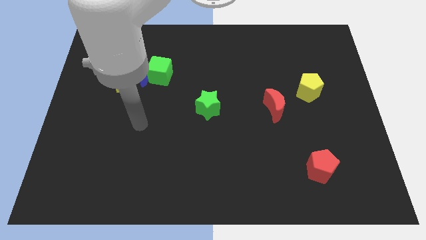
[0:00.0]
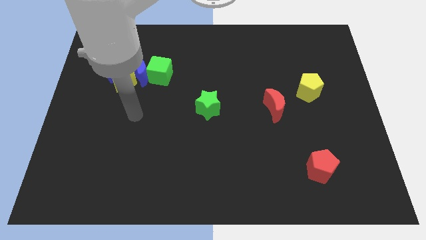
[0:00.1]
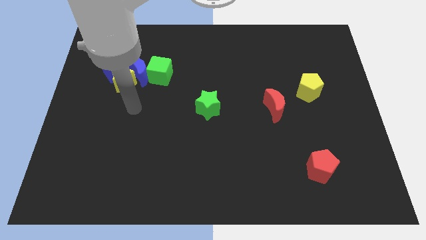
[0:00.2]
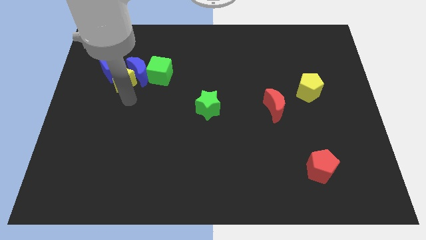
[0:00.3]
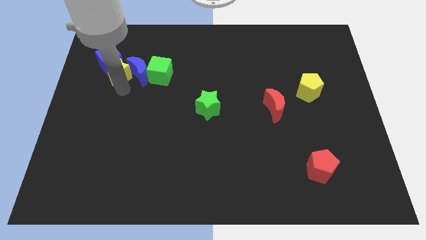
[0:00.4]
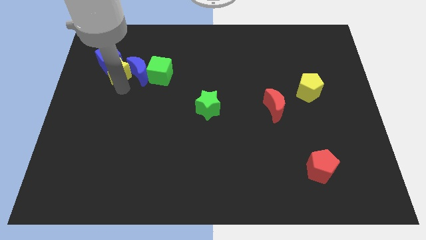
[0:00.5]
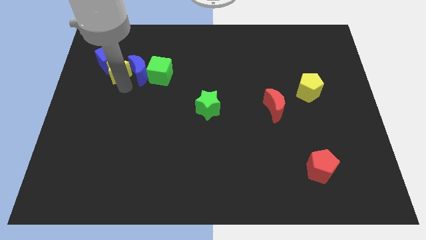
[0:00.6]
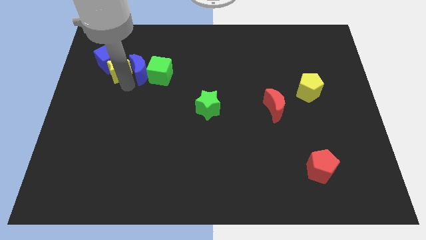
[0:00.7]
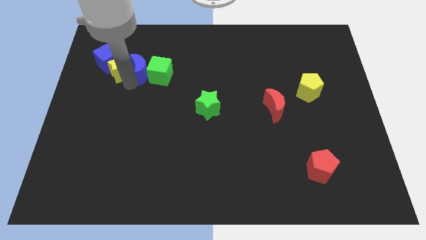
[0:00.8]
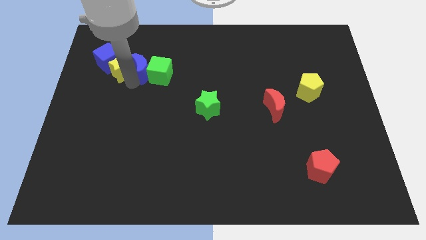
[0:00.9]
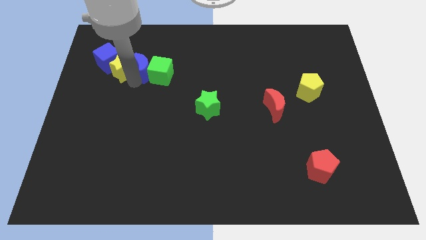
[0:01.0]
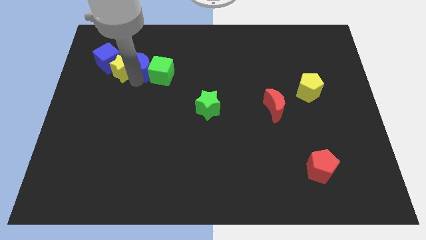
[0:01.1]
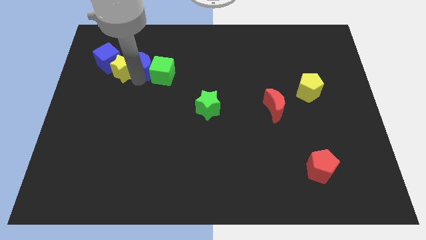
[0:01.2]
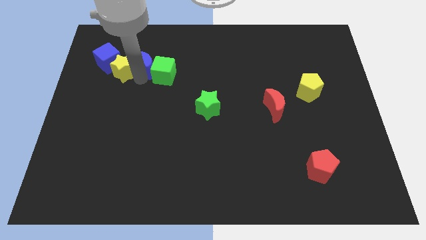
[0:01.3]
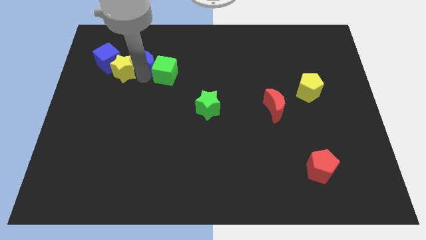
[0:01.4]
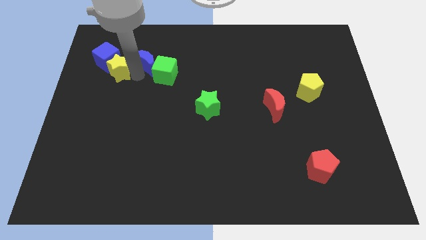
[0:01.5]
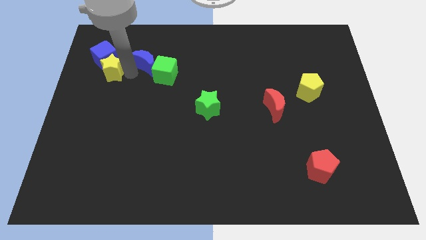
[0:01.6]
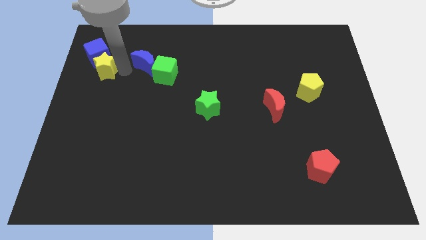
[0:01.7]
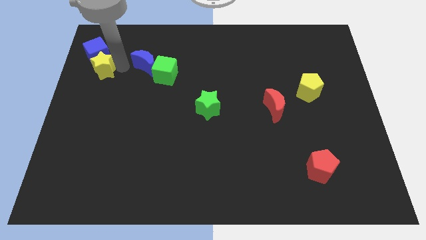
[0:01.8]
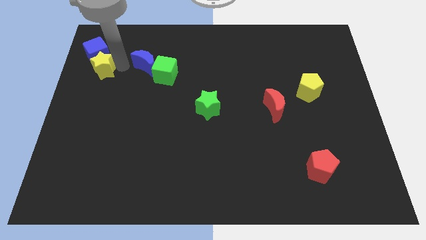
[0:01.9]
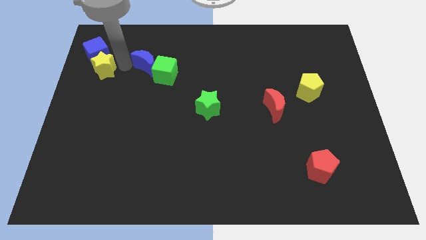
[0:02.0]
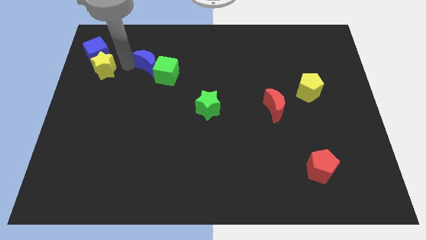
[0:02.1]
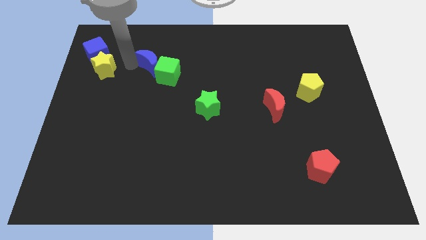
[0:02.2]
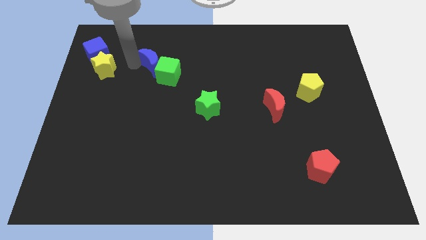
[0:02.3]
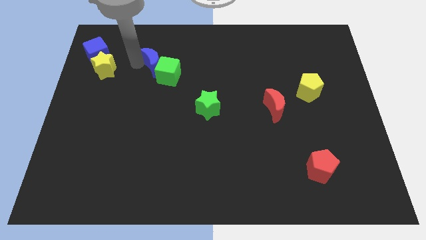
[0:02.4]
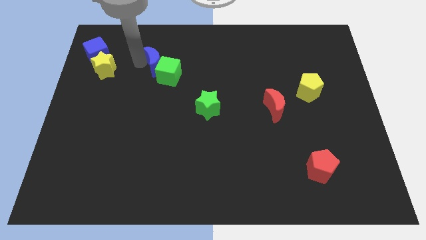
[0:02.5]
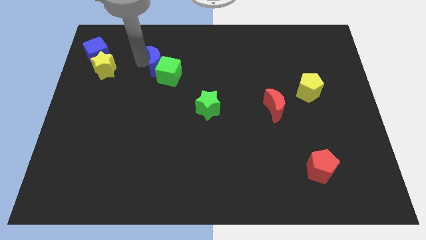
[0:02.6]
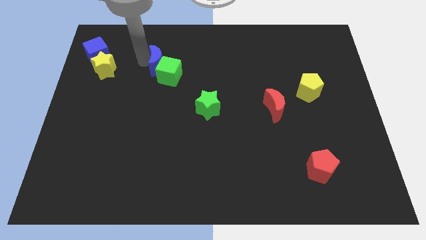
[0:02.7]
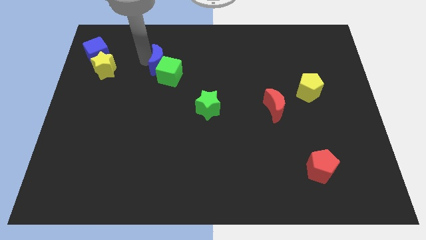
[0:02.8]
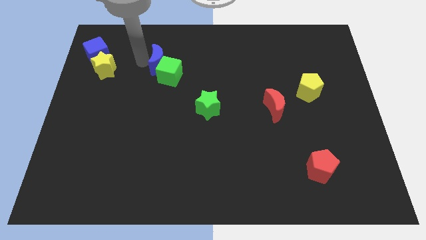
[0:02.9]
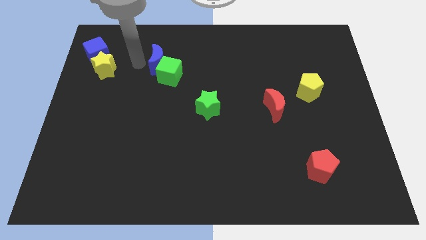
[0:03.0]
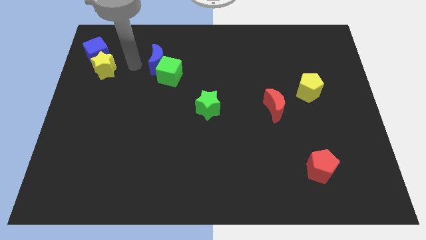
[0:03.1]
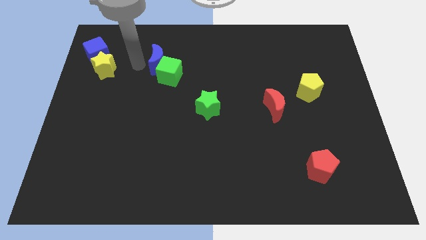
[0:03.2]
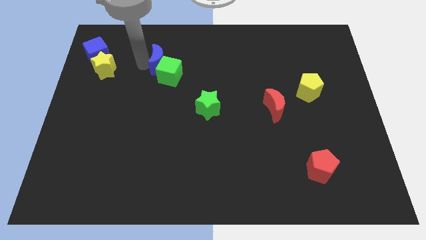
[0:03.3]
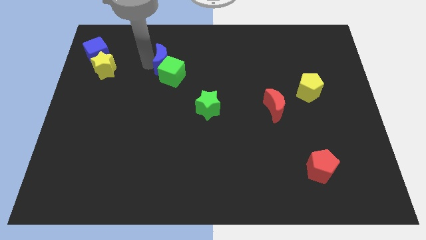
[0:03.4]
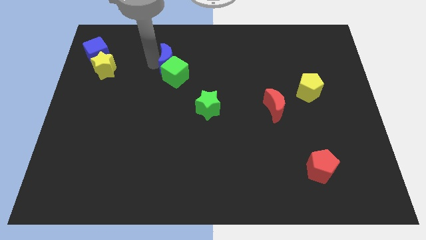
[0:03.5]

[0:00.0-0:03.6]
pull the blue moon apart from the group of blocks

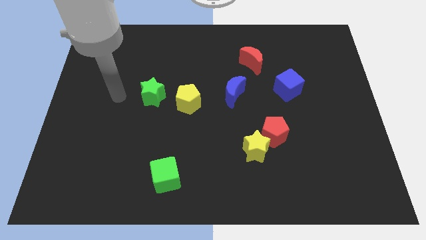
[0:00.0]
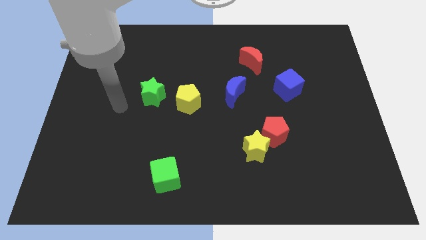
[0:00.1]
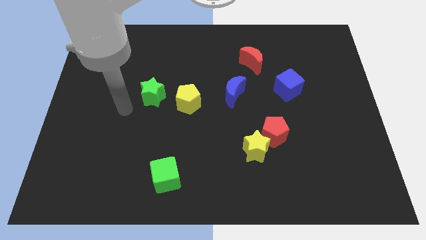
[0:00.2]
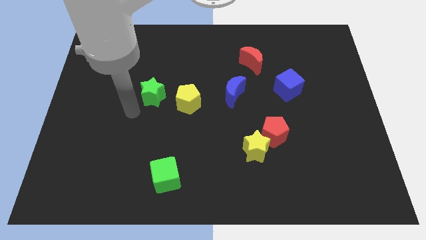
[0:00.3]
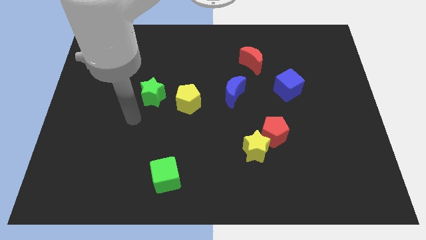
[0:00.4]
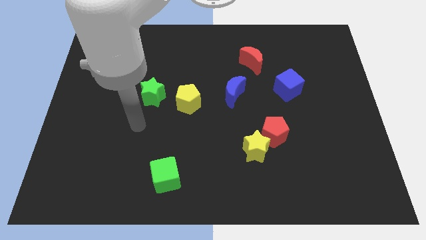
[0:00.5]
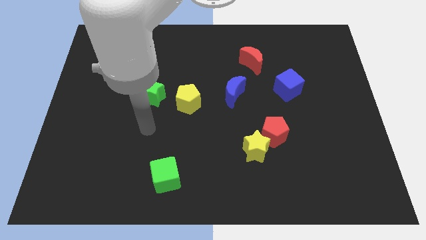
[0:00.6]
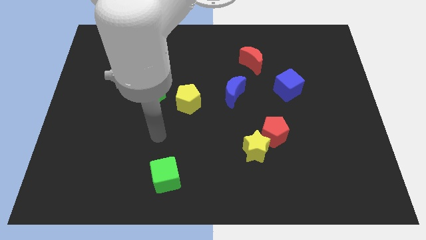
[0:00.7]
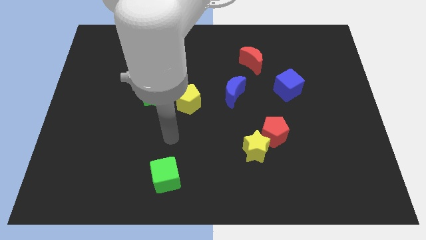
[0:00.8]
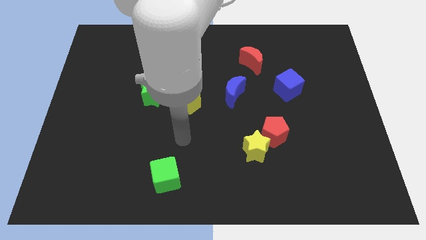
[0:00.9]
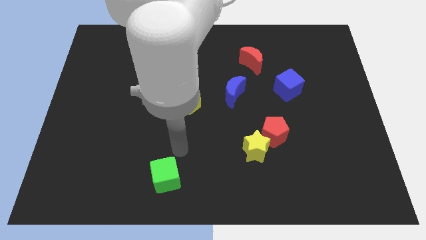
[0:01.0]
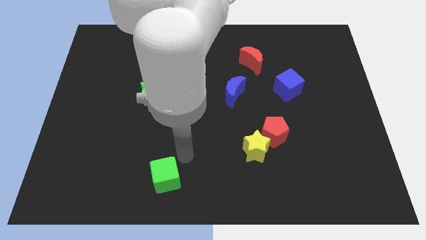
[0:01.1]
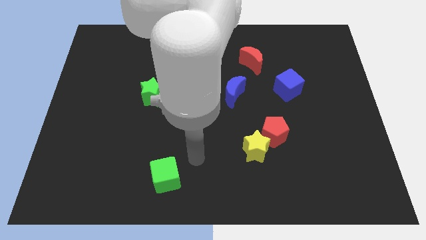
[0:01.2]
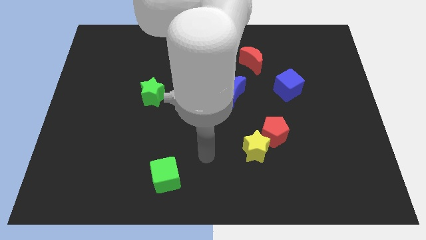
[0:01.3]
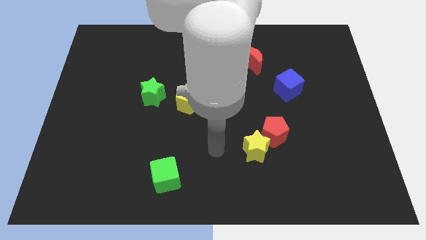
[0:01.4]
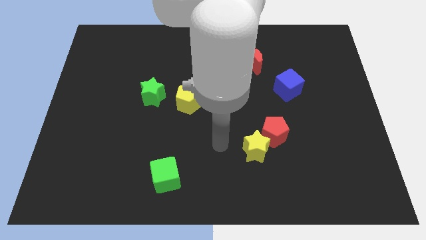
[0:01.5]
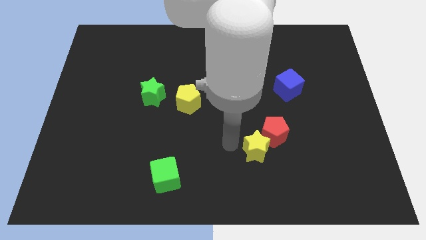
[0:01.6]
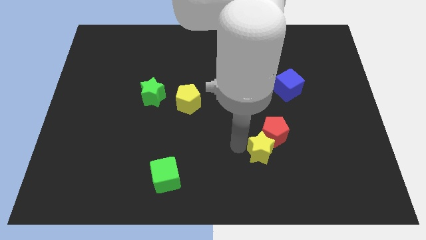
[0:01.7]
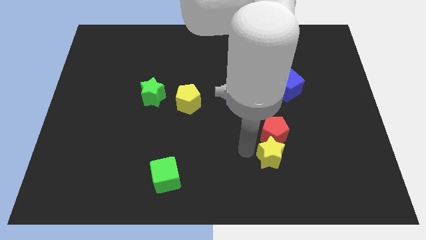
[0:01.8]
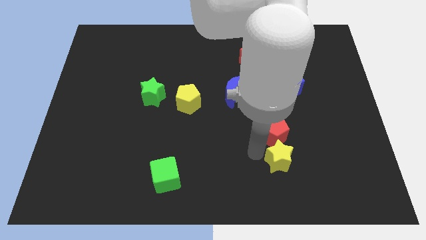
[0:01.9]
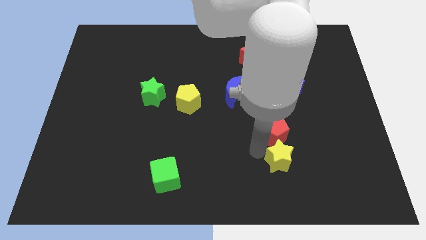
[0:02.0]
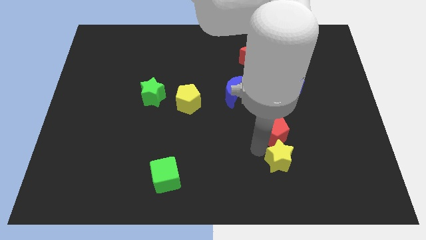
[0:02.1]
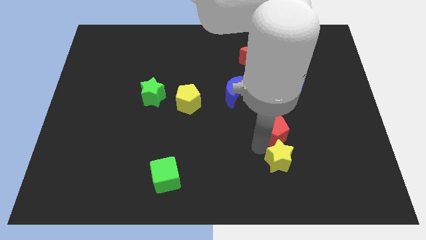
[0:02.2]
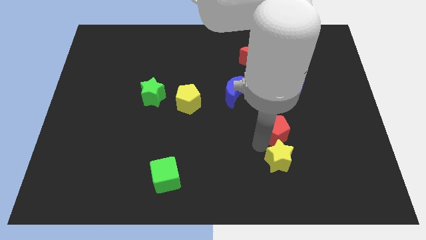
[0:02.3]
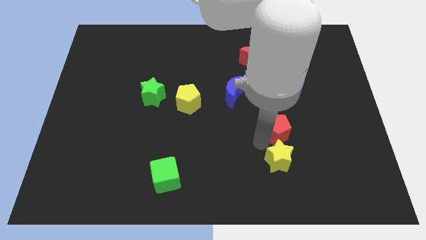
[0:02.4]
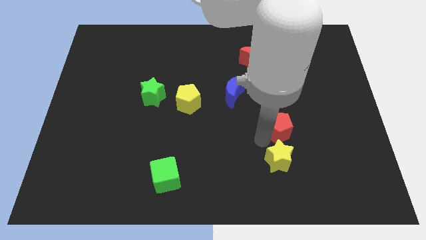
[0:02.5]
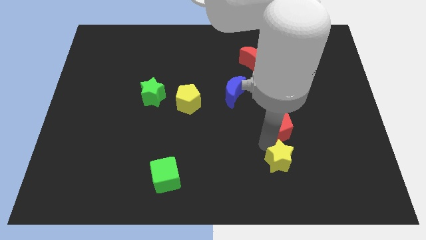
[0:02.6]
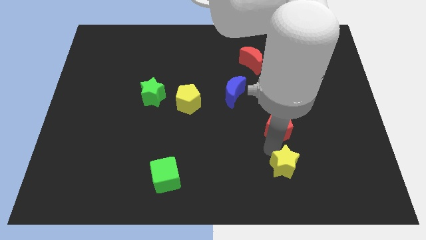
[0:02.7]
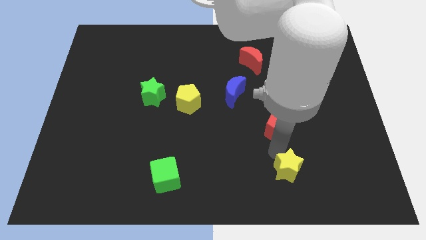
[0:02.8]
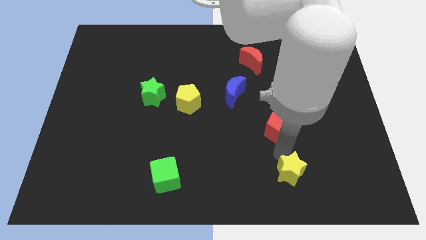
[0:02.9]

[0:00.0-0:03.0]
pull the red pentagon apart from the yellow star

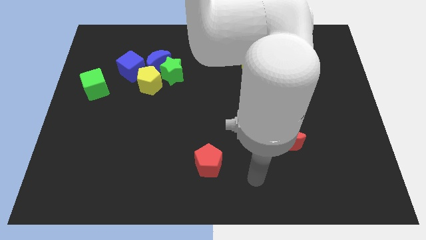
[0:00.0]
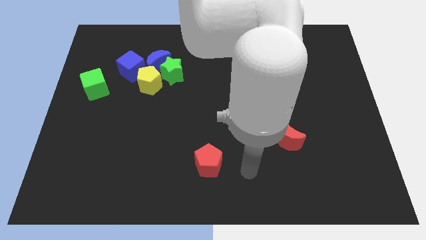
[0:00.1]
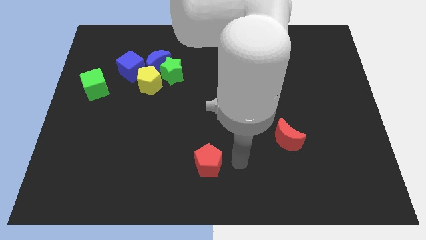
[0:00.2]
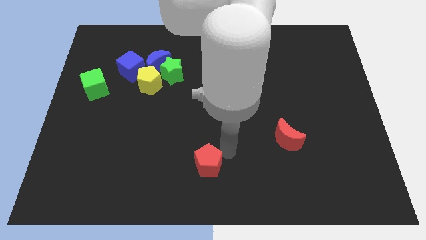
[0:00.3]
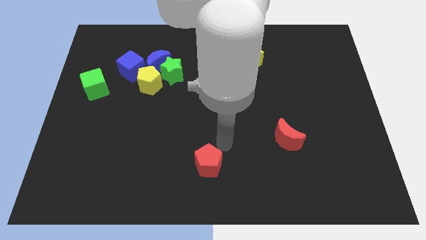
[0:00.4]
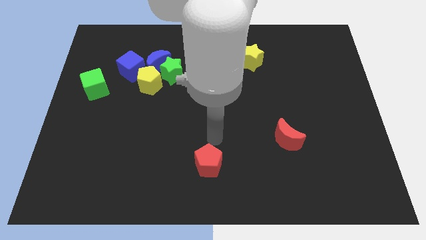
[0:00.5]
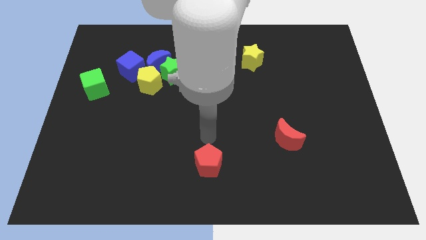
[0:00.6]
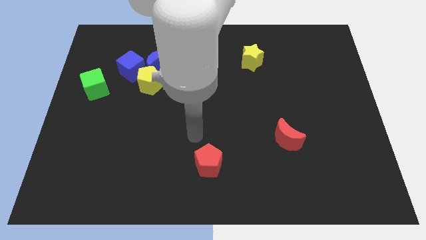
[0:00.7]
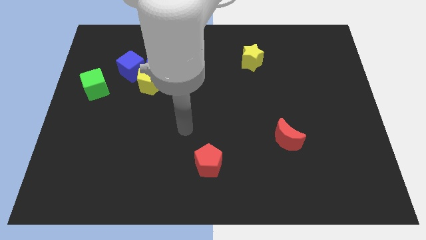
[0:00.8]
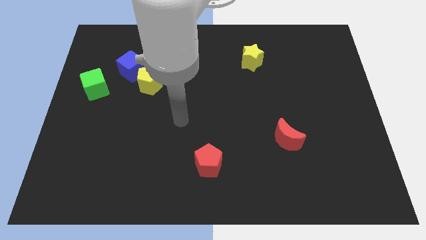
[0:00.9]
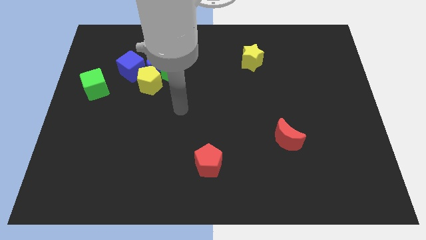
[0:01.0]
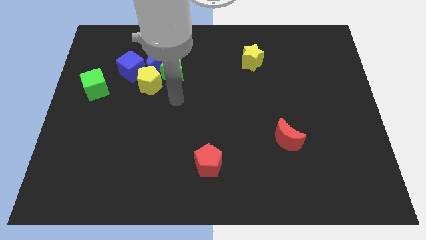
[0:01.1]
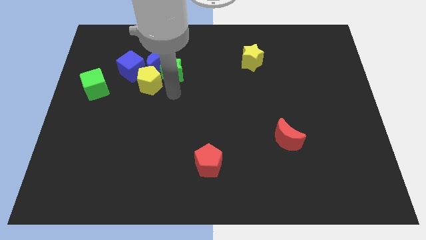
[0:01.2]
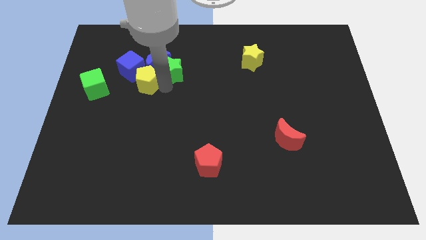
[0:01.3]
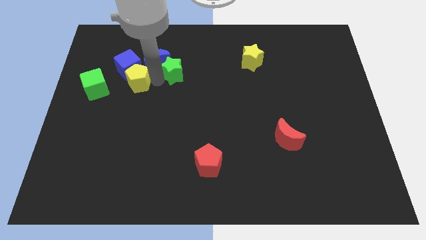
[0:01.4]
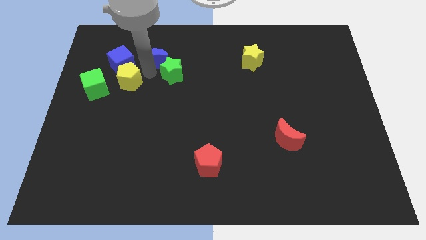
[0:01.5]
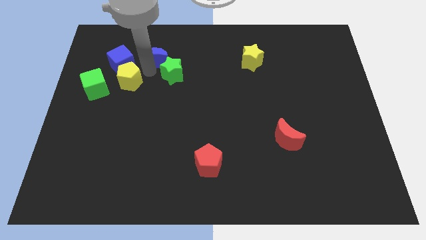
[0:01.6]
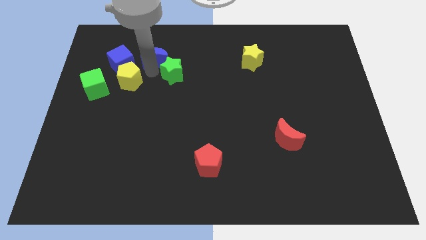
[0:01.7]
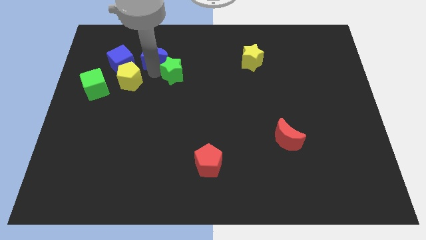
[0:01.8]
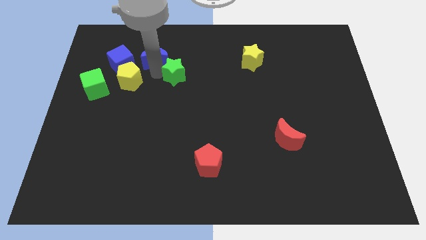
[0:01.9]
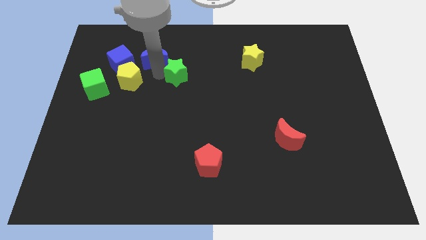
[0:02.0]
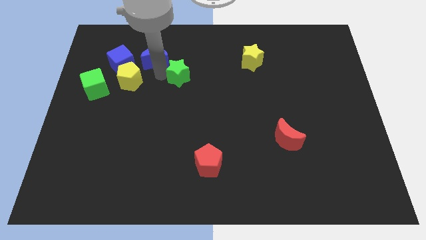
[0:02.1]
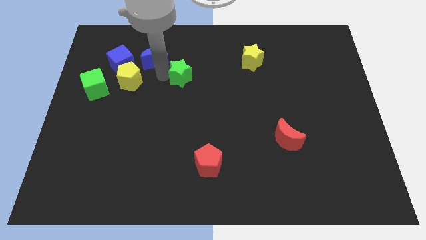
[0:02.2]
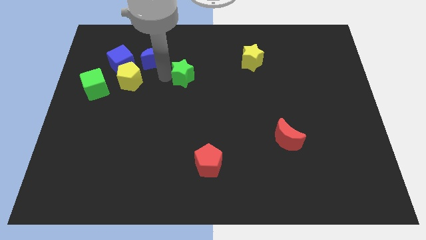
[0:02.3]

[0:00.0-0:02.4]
separate the green star from the blue moon and yellow pentagon

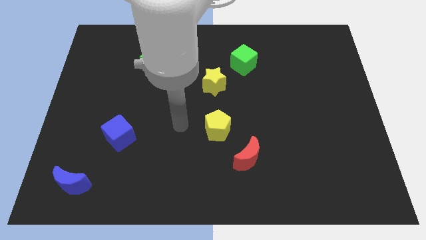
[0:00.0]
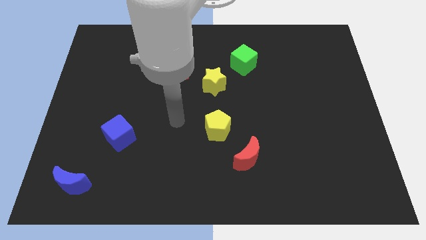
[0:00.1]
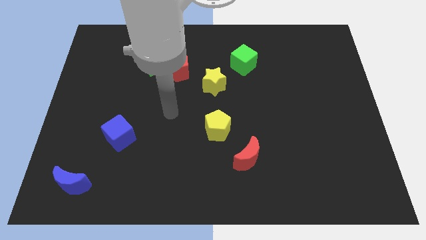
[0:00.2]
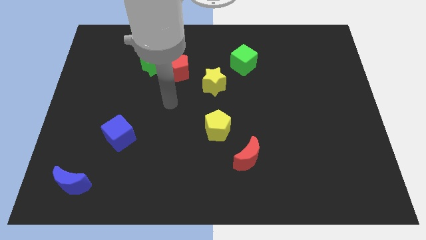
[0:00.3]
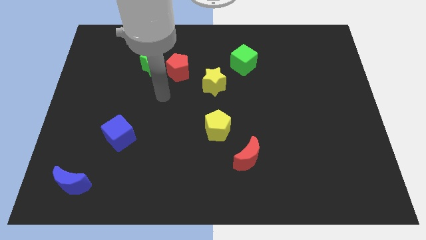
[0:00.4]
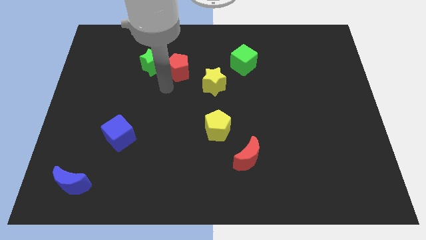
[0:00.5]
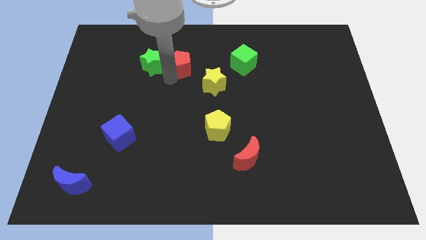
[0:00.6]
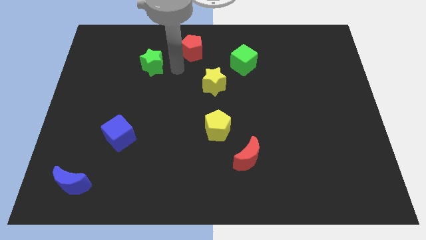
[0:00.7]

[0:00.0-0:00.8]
pull the green star apart from the red pentagon
